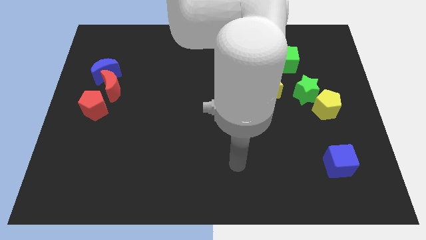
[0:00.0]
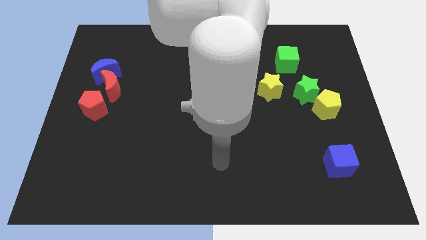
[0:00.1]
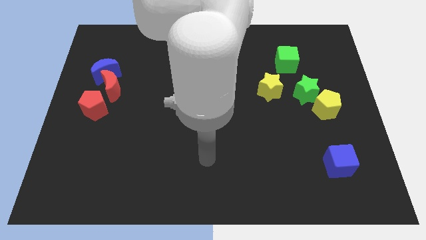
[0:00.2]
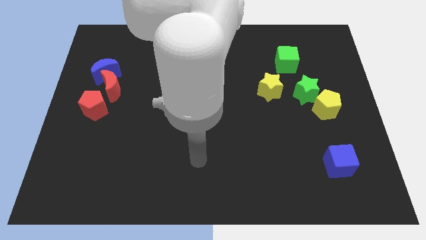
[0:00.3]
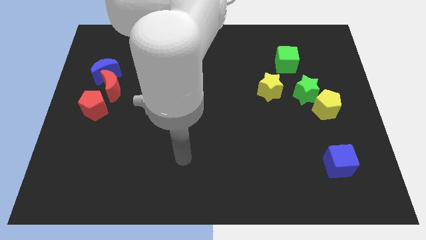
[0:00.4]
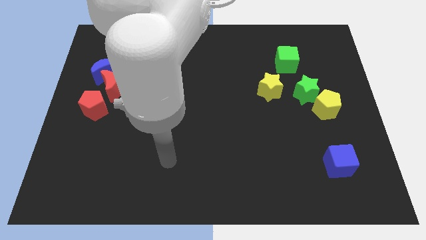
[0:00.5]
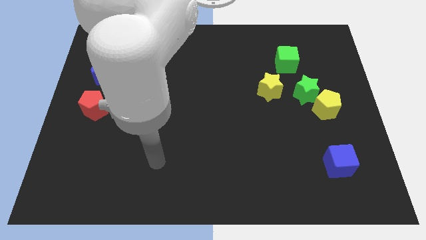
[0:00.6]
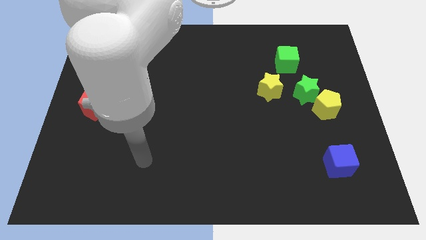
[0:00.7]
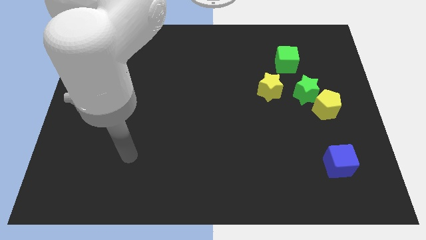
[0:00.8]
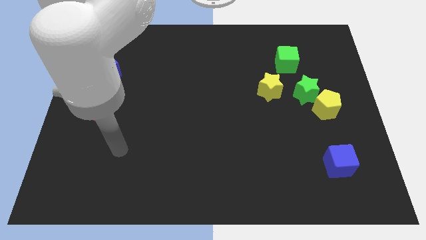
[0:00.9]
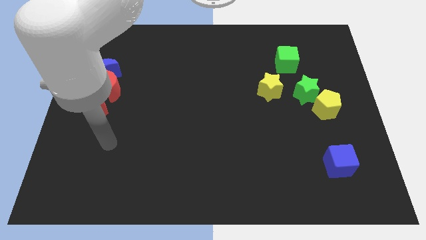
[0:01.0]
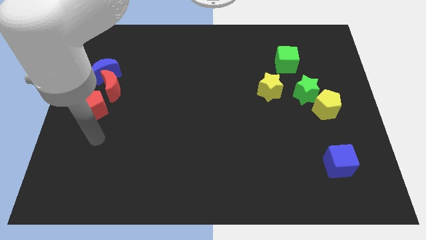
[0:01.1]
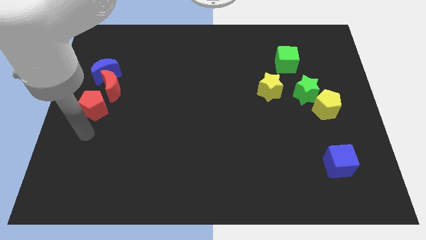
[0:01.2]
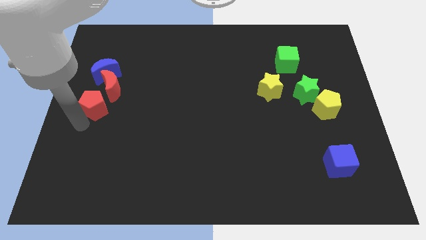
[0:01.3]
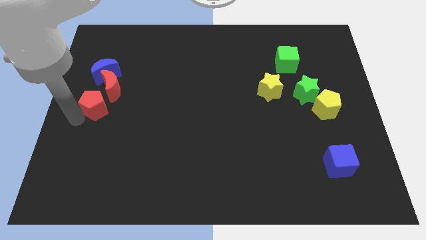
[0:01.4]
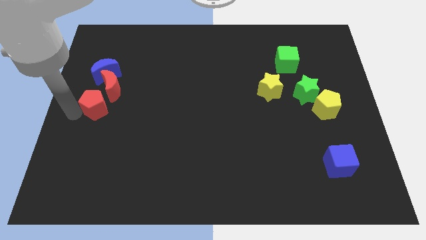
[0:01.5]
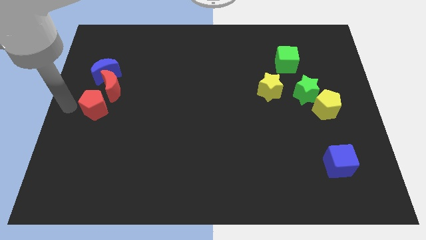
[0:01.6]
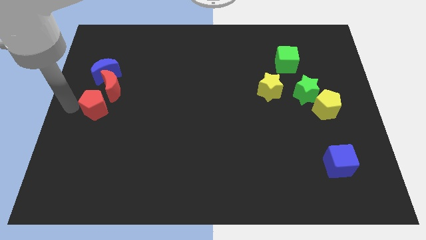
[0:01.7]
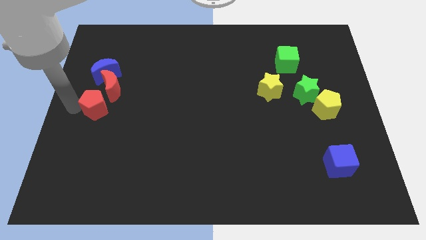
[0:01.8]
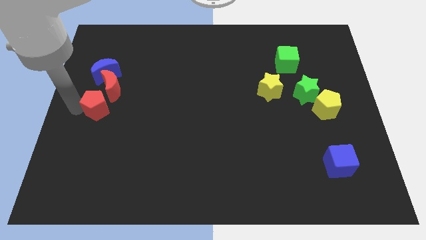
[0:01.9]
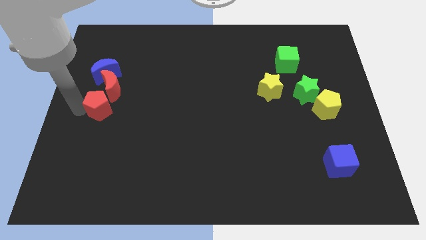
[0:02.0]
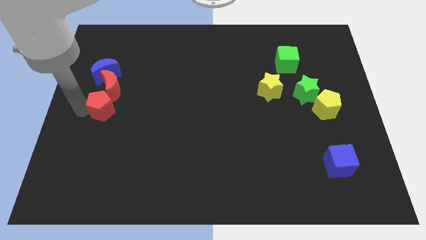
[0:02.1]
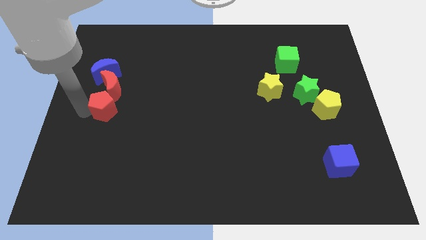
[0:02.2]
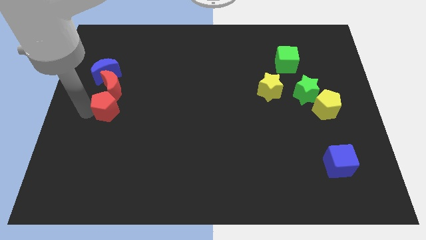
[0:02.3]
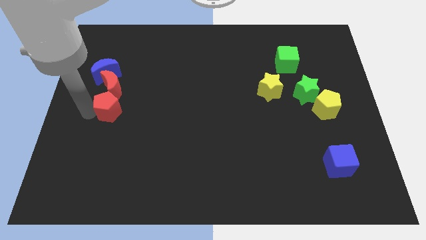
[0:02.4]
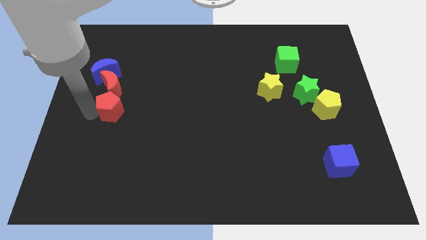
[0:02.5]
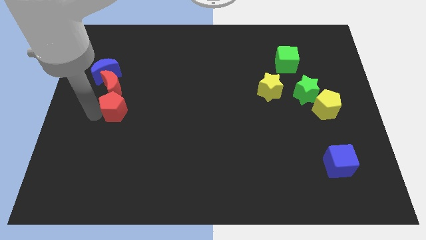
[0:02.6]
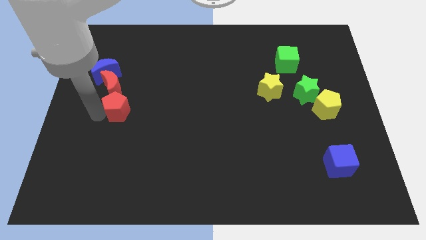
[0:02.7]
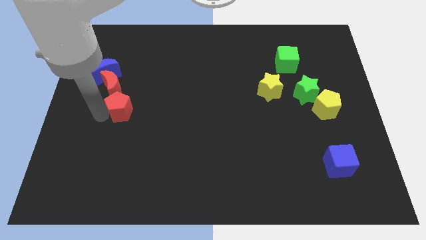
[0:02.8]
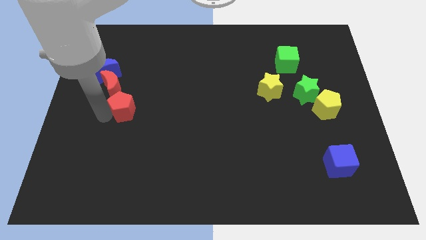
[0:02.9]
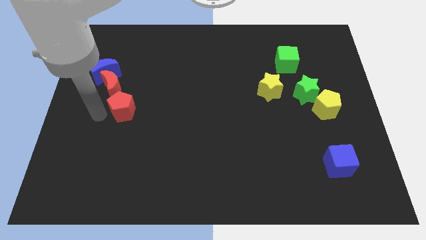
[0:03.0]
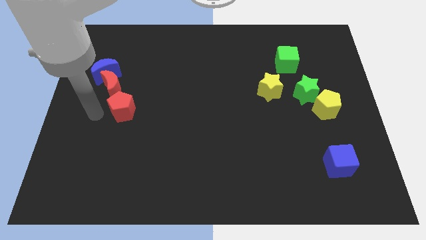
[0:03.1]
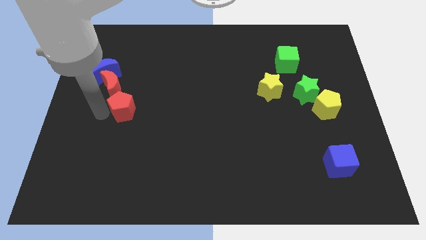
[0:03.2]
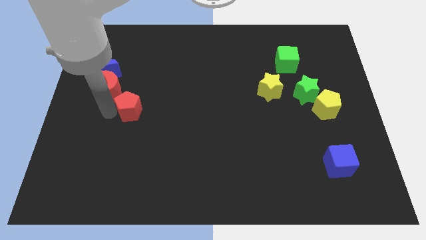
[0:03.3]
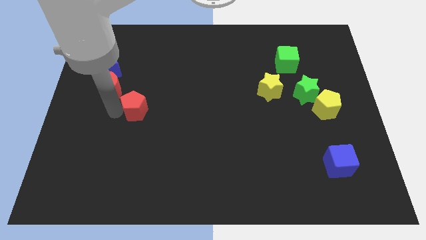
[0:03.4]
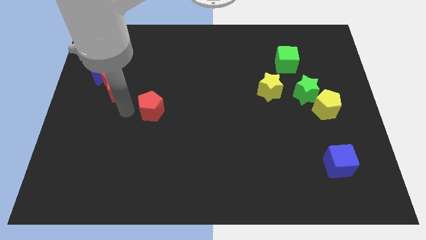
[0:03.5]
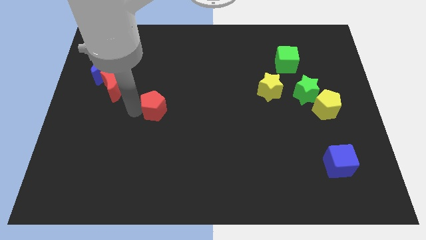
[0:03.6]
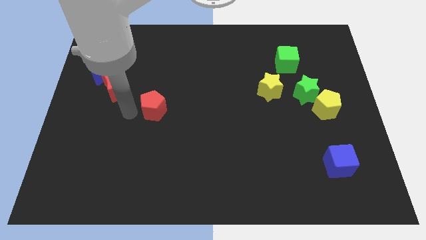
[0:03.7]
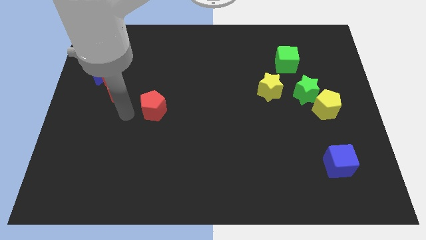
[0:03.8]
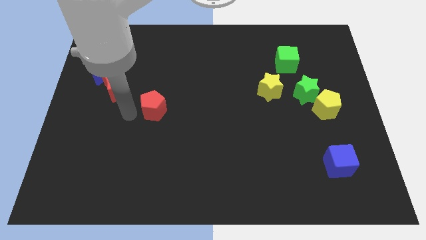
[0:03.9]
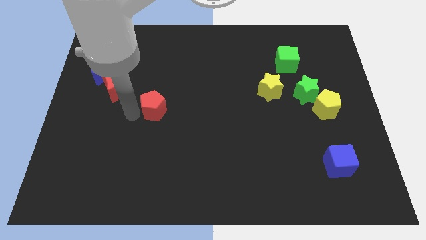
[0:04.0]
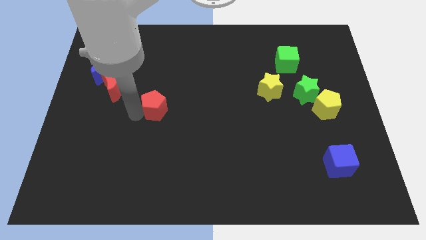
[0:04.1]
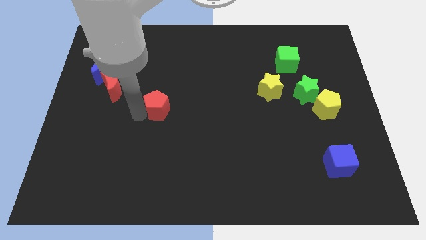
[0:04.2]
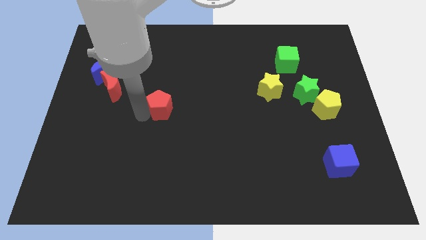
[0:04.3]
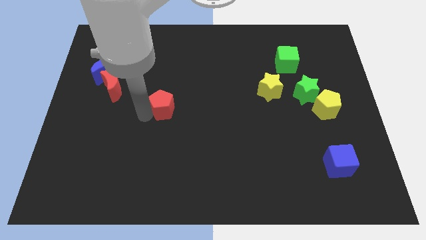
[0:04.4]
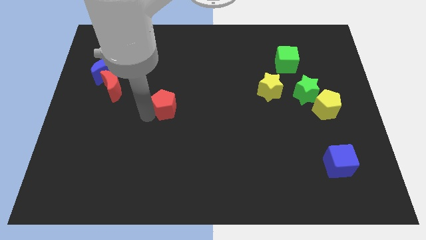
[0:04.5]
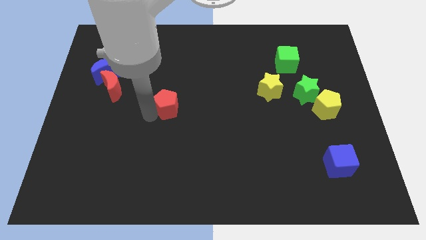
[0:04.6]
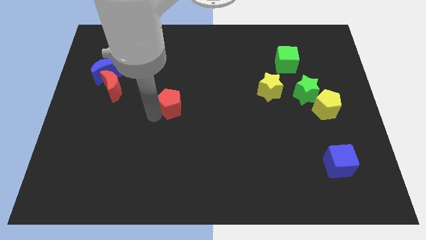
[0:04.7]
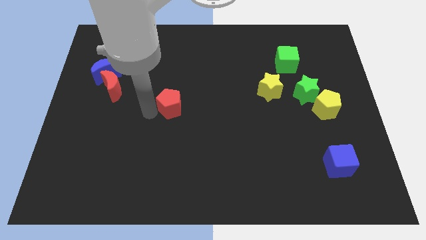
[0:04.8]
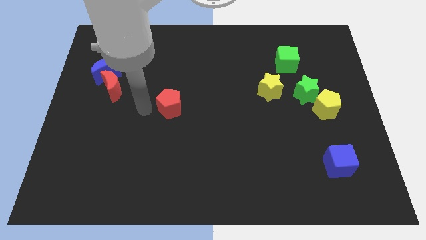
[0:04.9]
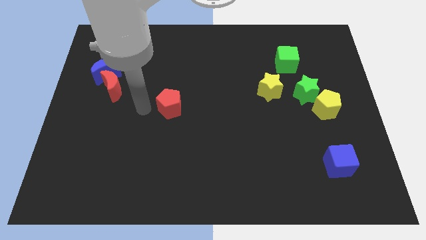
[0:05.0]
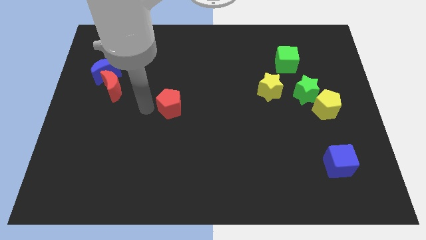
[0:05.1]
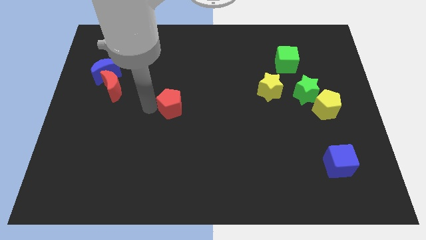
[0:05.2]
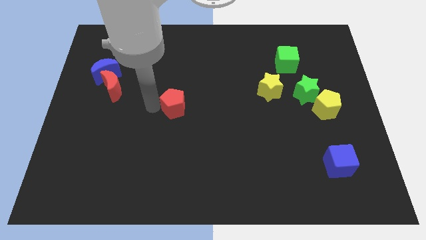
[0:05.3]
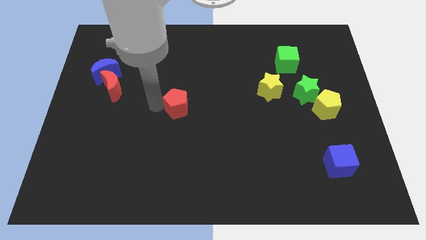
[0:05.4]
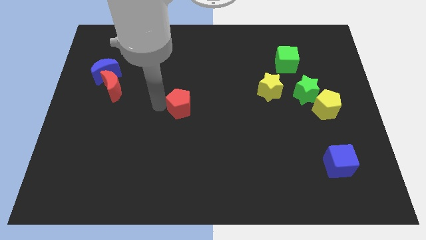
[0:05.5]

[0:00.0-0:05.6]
push the red pentagon right

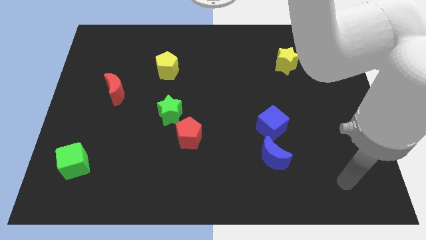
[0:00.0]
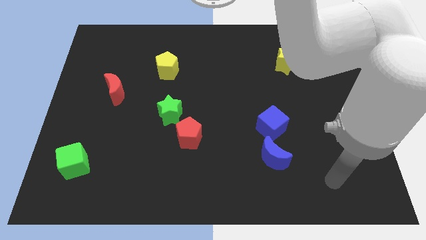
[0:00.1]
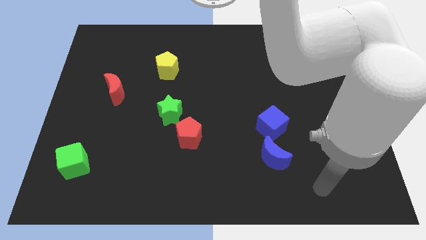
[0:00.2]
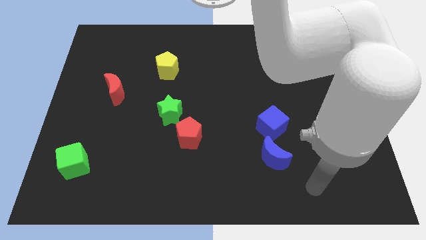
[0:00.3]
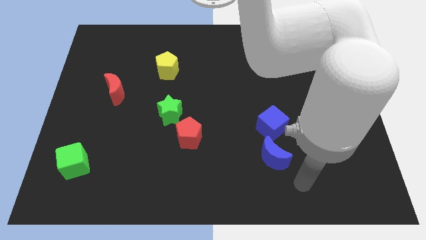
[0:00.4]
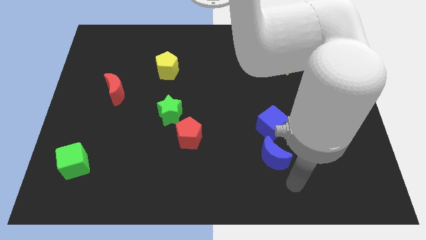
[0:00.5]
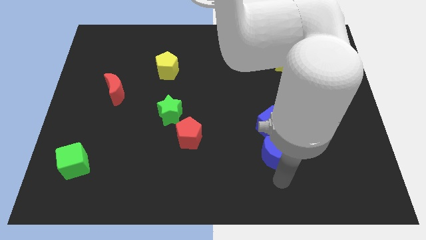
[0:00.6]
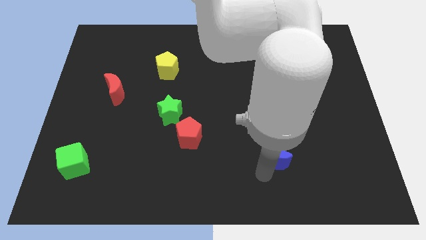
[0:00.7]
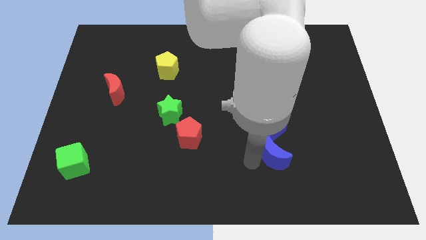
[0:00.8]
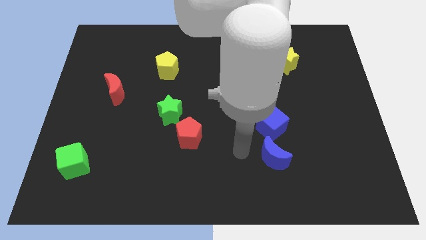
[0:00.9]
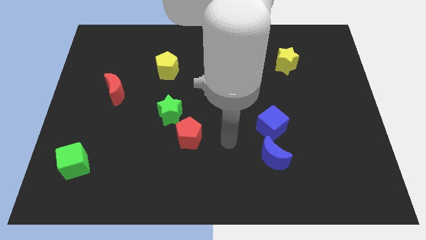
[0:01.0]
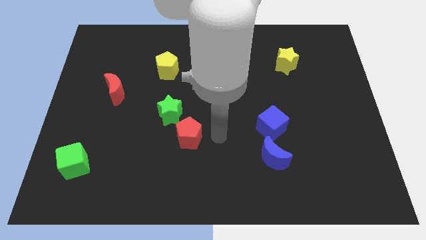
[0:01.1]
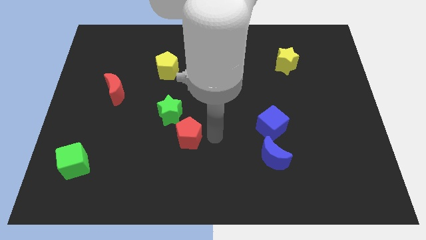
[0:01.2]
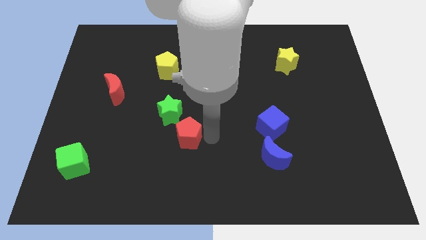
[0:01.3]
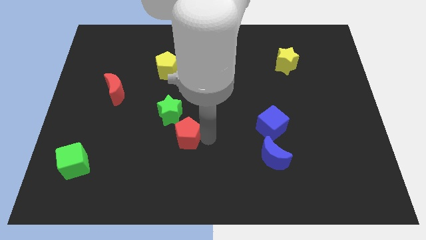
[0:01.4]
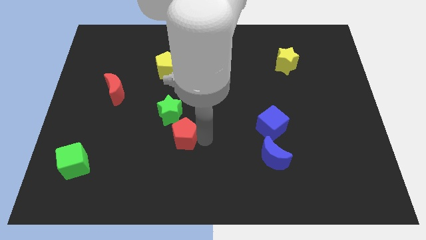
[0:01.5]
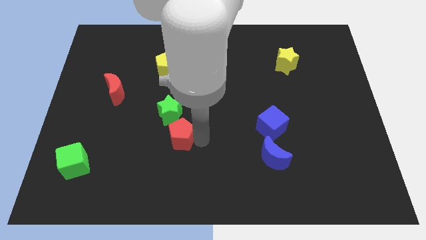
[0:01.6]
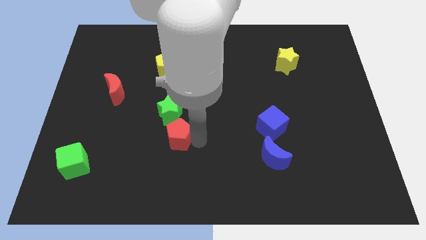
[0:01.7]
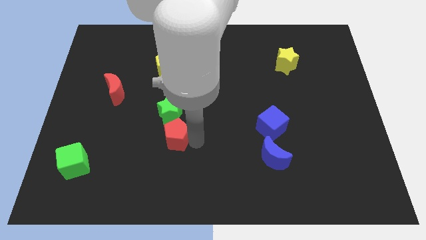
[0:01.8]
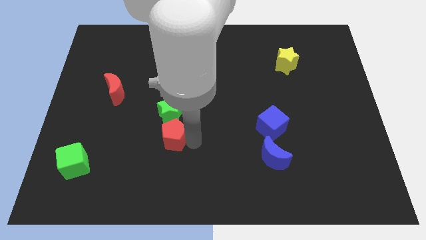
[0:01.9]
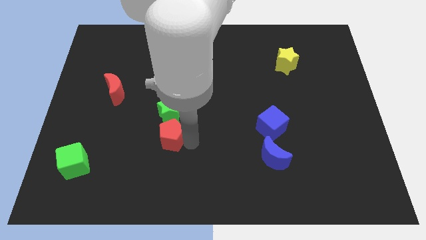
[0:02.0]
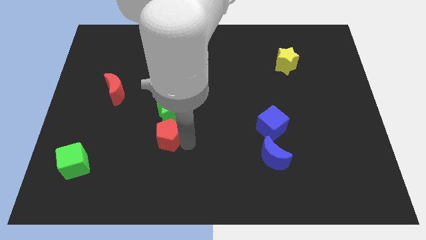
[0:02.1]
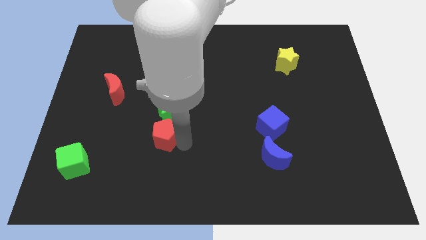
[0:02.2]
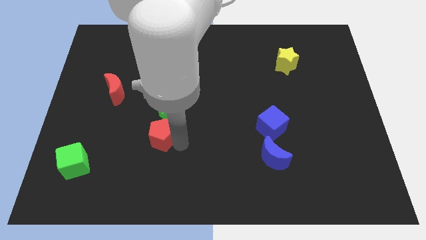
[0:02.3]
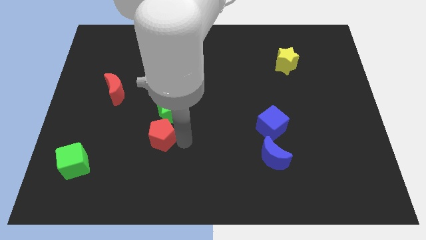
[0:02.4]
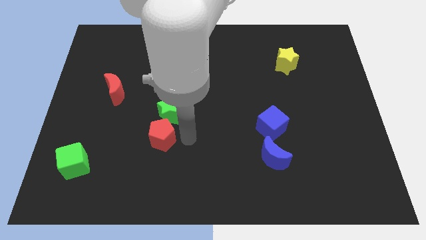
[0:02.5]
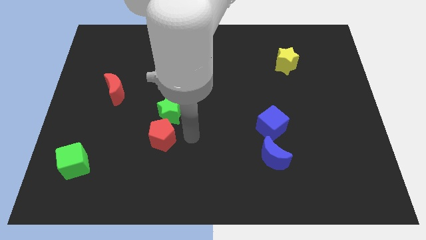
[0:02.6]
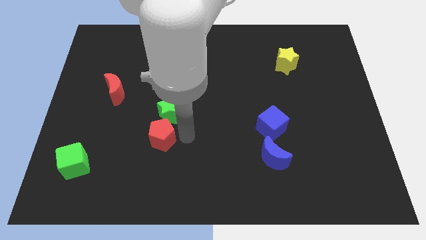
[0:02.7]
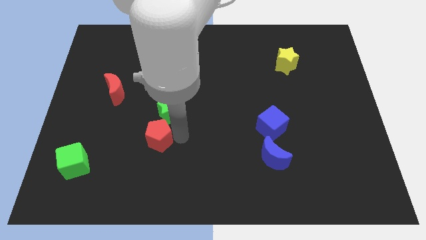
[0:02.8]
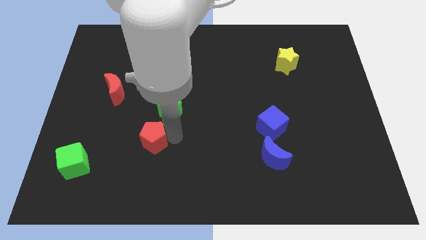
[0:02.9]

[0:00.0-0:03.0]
slightly move the red pentagon left
